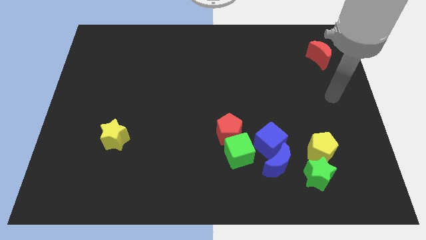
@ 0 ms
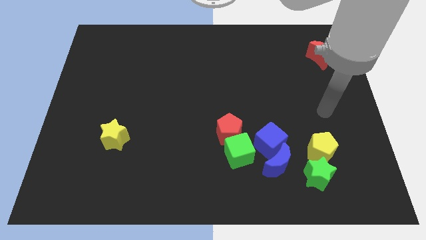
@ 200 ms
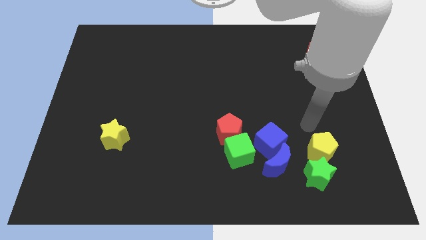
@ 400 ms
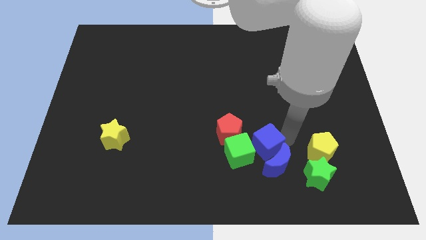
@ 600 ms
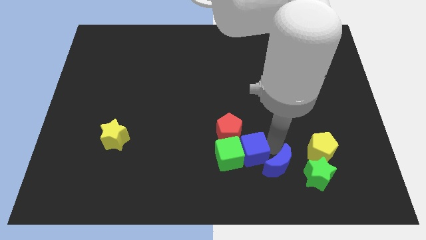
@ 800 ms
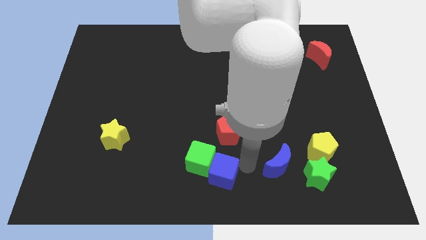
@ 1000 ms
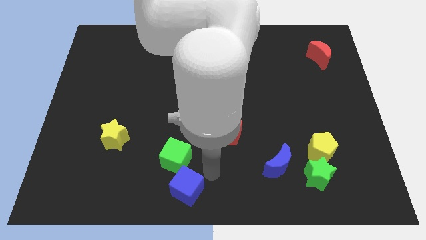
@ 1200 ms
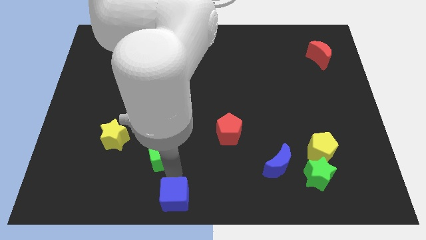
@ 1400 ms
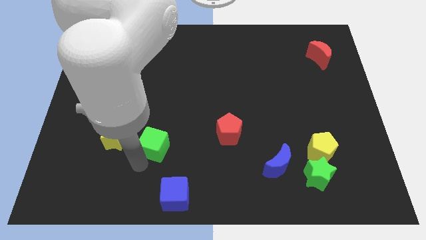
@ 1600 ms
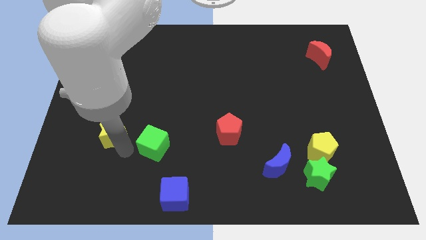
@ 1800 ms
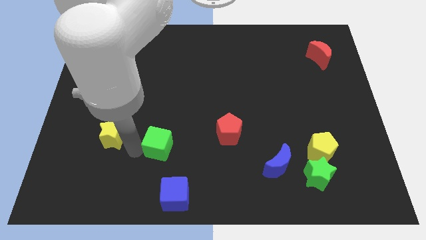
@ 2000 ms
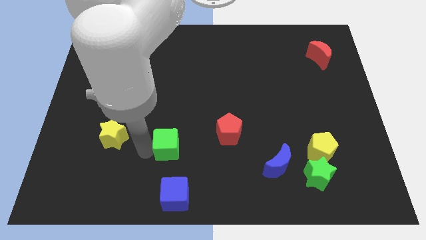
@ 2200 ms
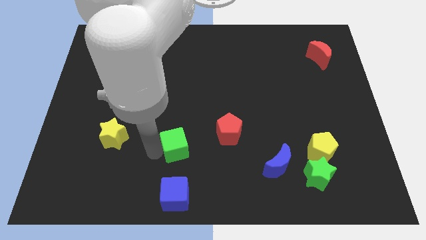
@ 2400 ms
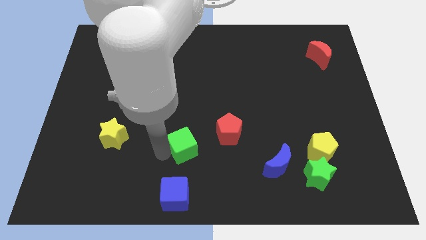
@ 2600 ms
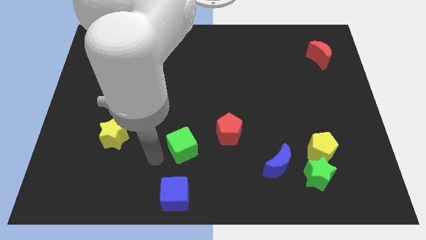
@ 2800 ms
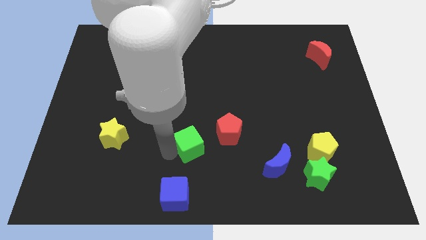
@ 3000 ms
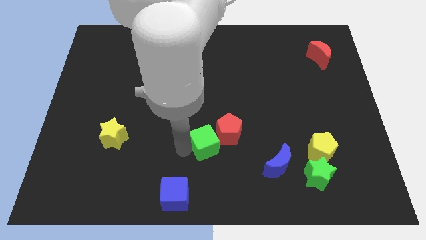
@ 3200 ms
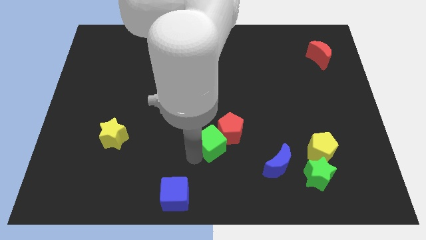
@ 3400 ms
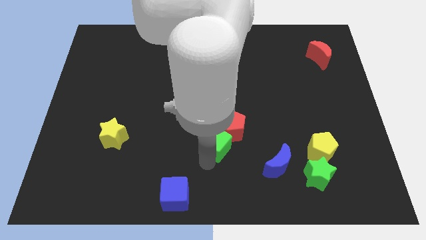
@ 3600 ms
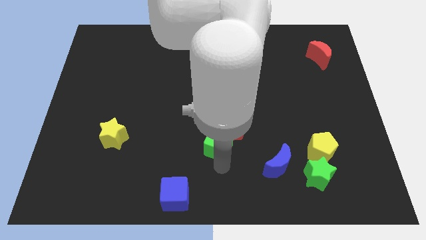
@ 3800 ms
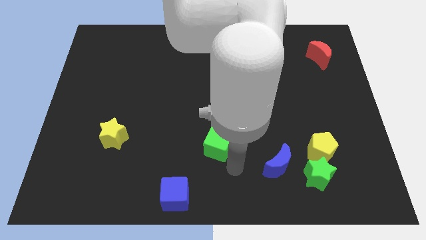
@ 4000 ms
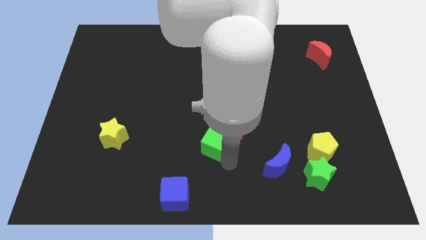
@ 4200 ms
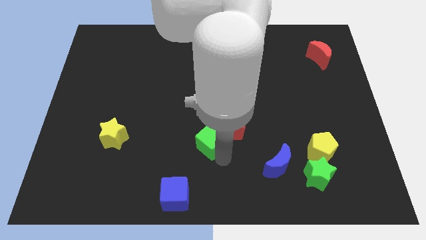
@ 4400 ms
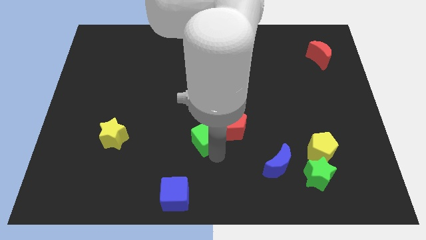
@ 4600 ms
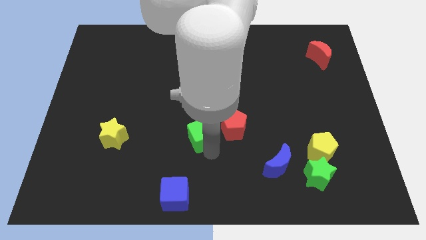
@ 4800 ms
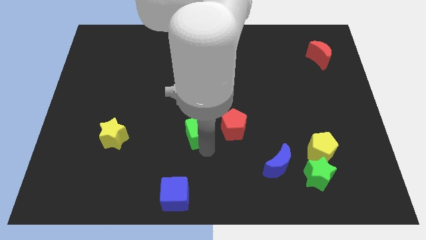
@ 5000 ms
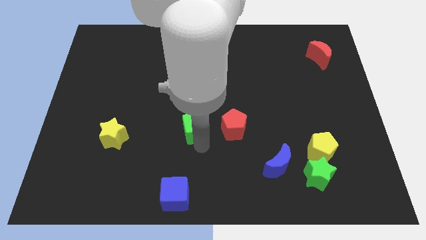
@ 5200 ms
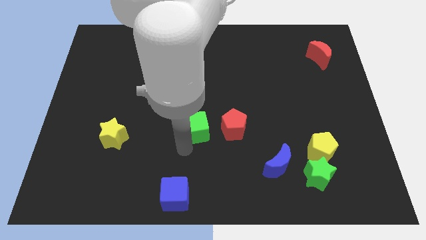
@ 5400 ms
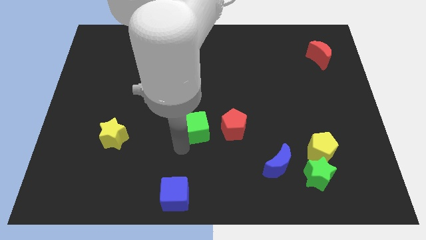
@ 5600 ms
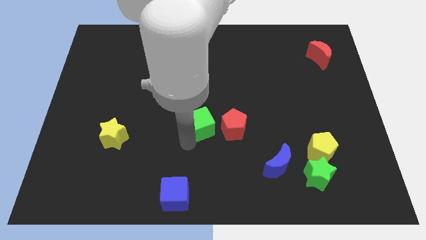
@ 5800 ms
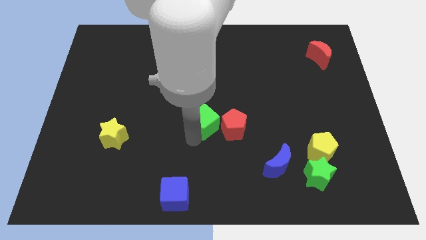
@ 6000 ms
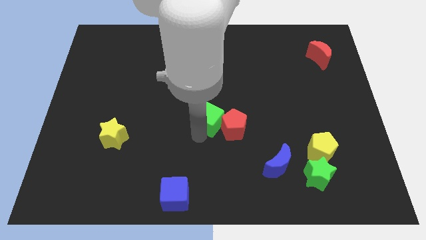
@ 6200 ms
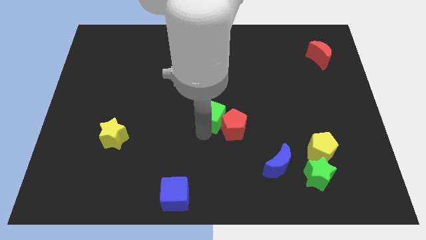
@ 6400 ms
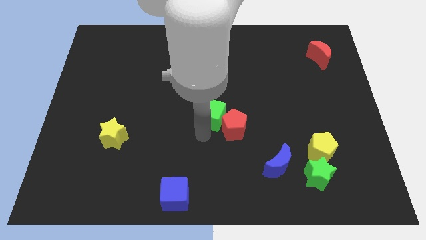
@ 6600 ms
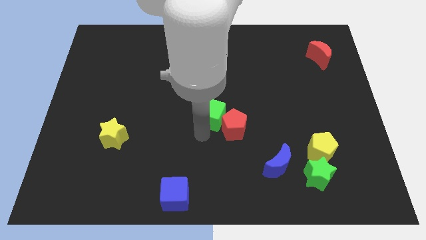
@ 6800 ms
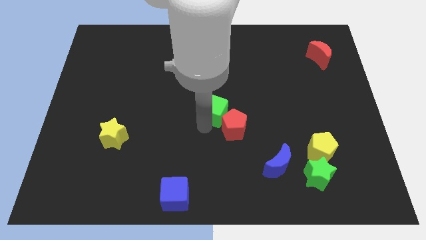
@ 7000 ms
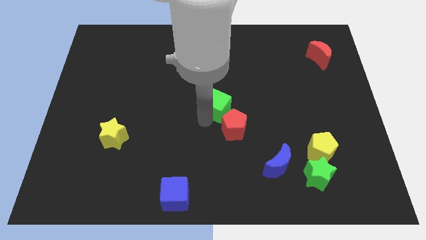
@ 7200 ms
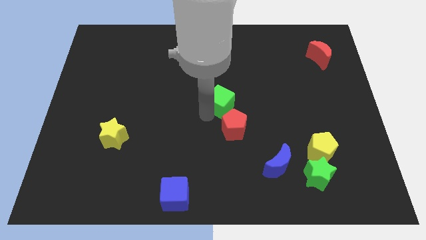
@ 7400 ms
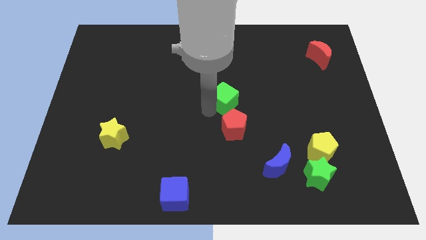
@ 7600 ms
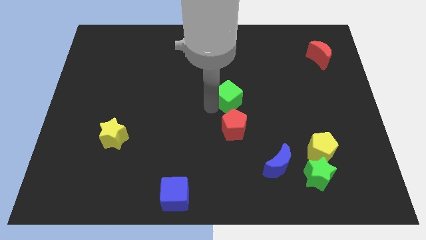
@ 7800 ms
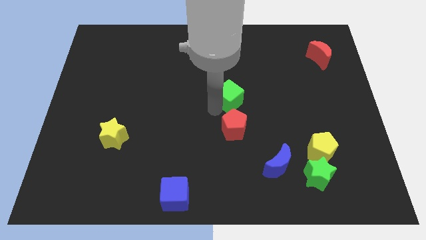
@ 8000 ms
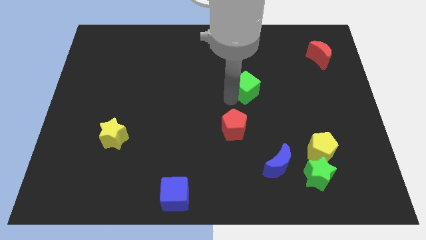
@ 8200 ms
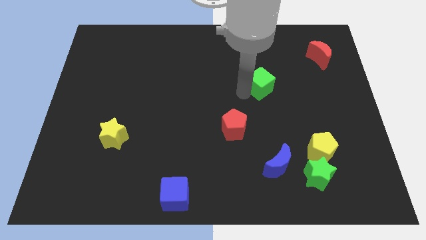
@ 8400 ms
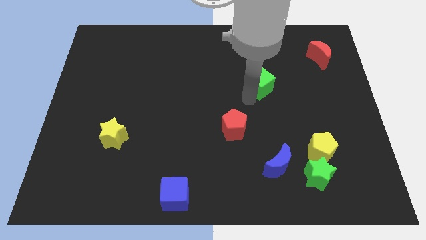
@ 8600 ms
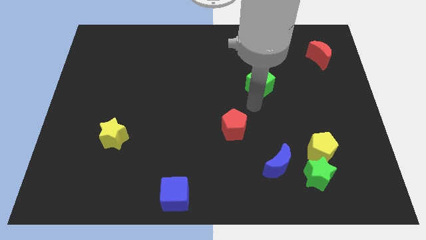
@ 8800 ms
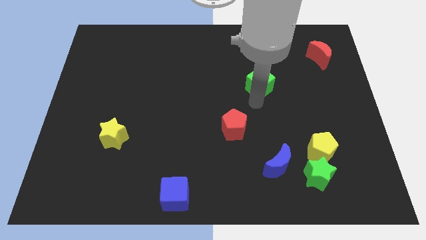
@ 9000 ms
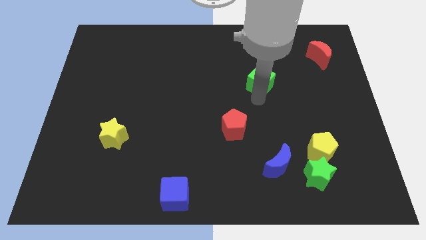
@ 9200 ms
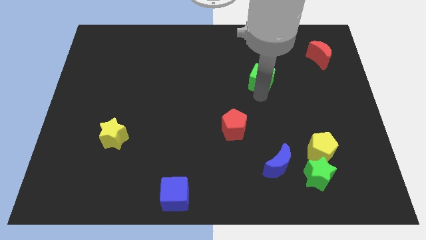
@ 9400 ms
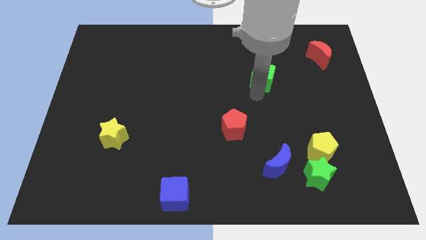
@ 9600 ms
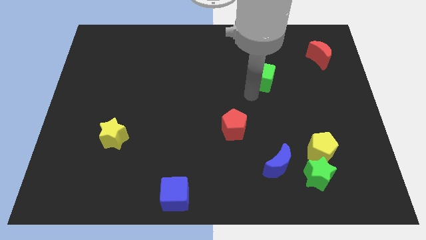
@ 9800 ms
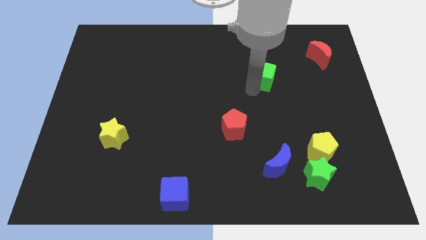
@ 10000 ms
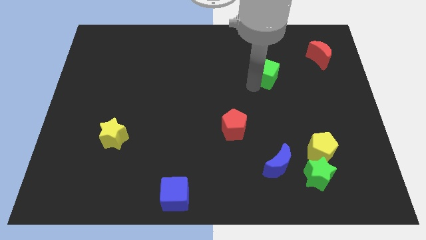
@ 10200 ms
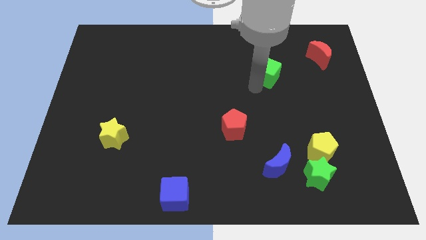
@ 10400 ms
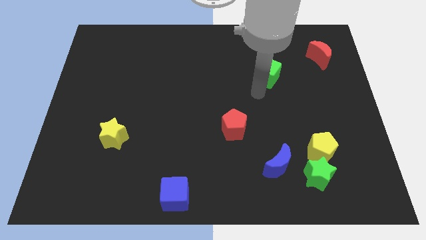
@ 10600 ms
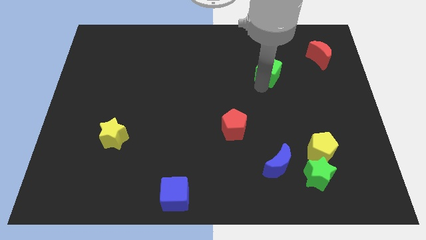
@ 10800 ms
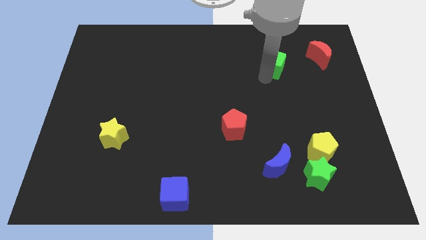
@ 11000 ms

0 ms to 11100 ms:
put the green cube to the left side of the red moon

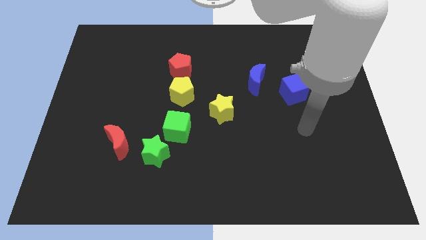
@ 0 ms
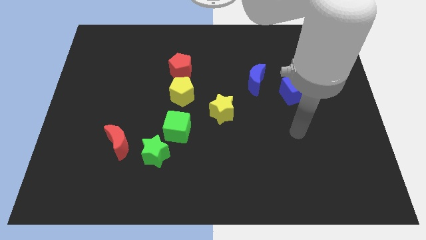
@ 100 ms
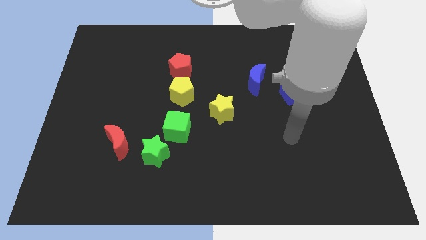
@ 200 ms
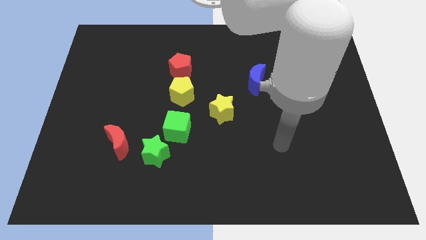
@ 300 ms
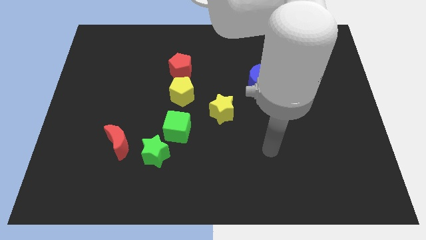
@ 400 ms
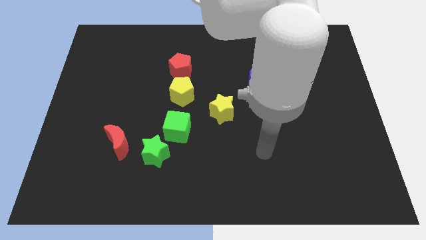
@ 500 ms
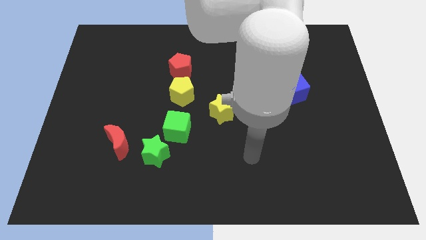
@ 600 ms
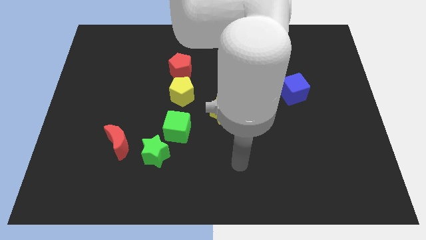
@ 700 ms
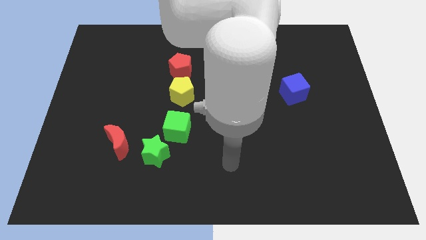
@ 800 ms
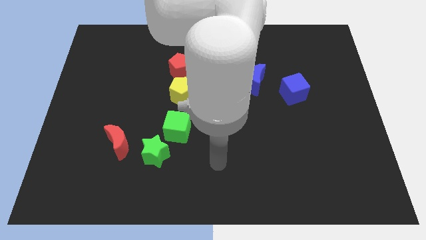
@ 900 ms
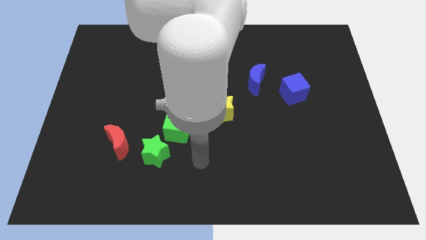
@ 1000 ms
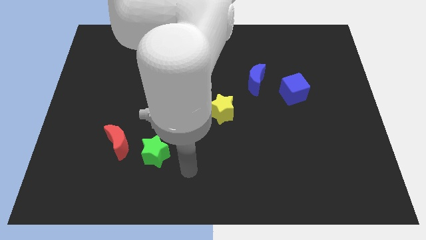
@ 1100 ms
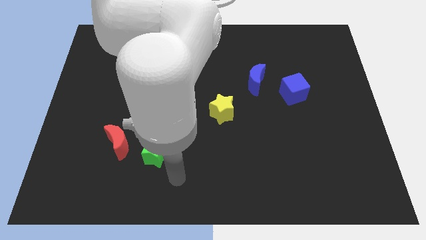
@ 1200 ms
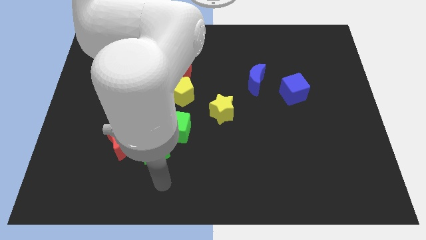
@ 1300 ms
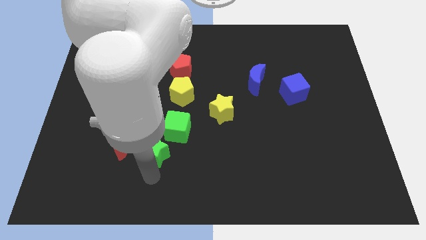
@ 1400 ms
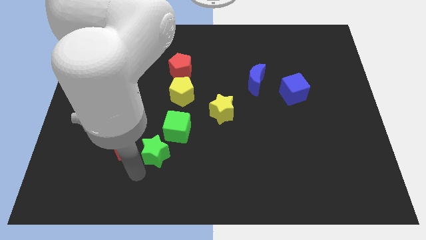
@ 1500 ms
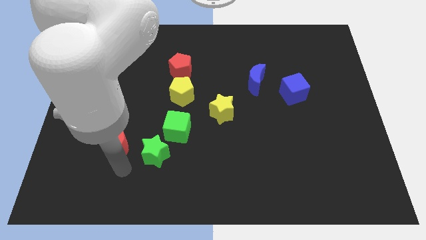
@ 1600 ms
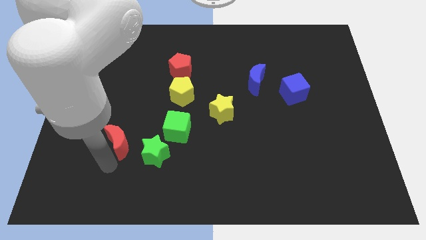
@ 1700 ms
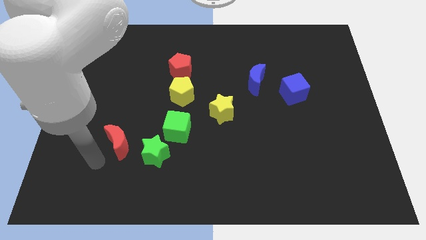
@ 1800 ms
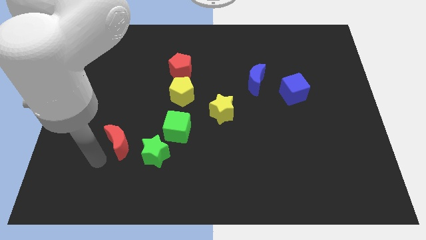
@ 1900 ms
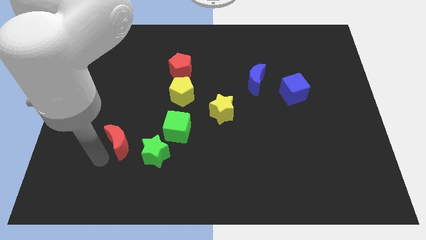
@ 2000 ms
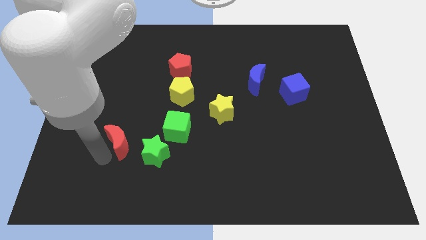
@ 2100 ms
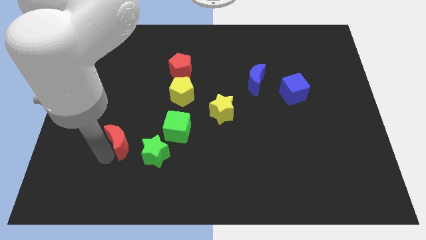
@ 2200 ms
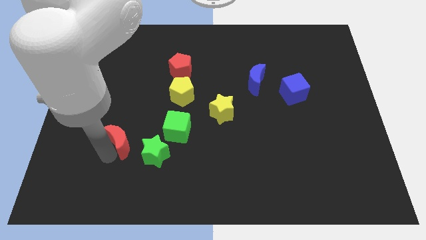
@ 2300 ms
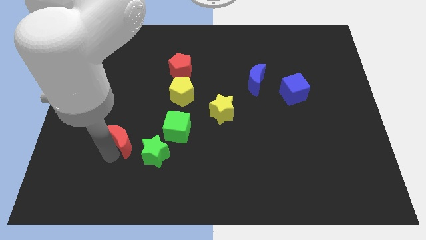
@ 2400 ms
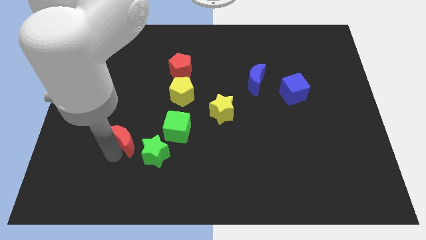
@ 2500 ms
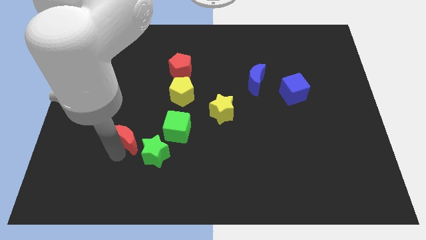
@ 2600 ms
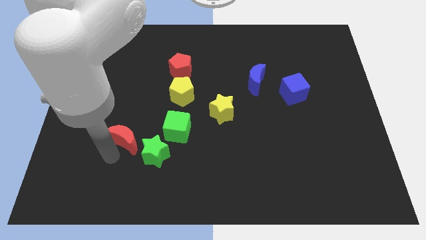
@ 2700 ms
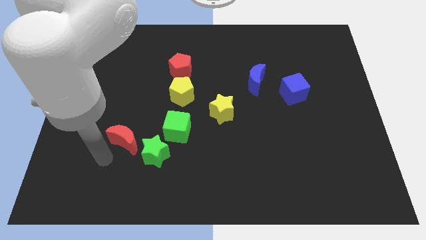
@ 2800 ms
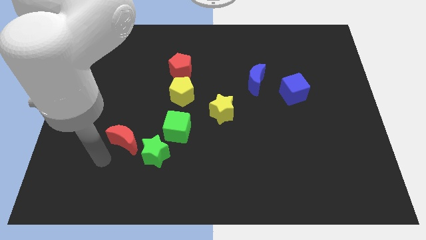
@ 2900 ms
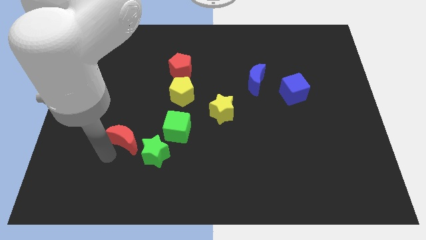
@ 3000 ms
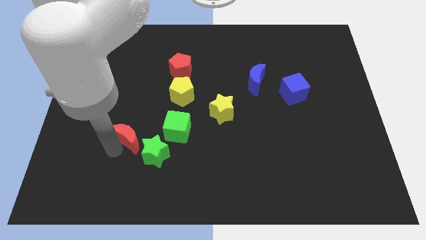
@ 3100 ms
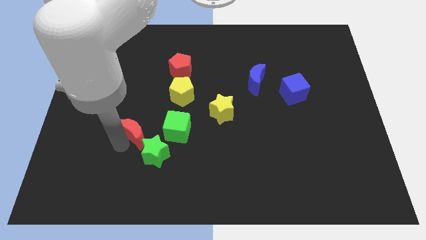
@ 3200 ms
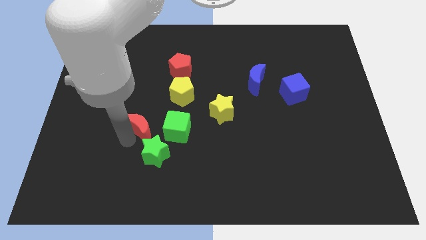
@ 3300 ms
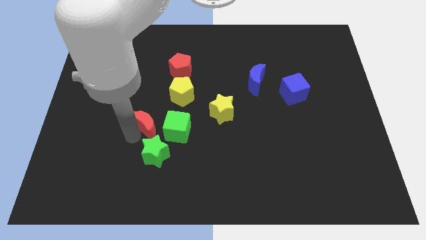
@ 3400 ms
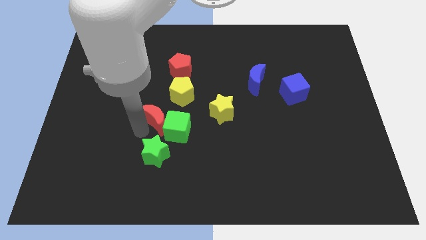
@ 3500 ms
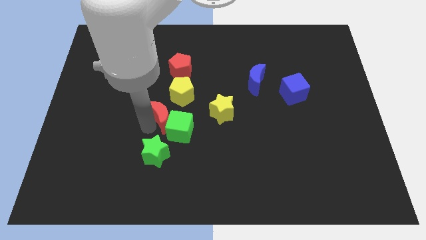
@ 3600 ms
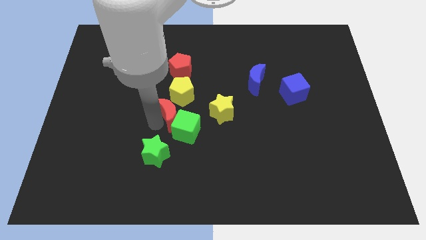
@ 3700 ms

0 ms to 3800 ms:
put the red moon to the bottom of the red pentagon
